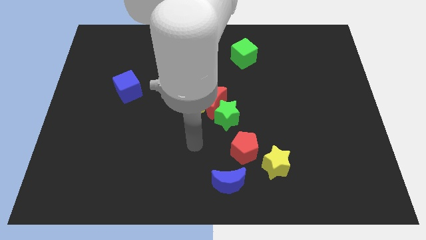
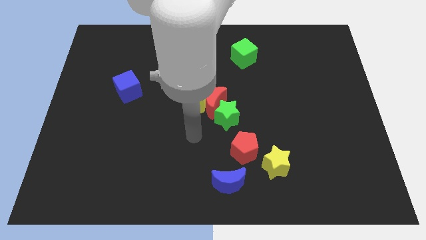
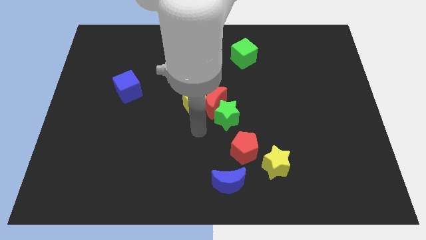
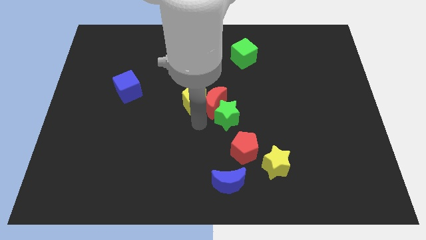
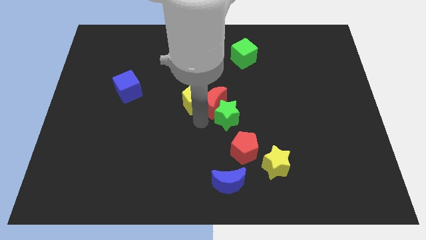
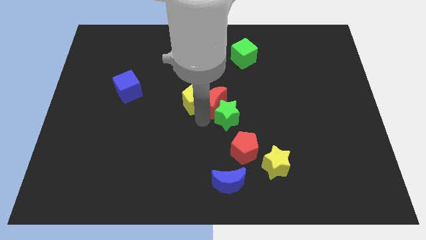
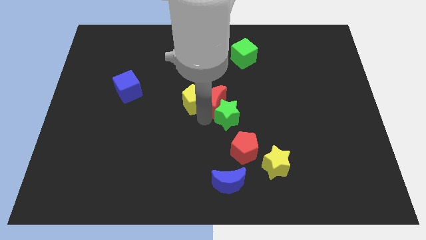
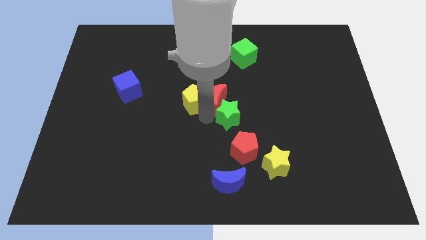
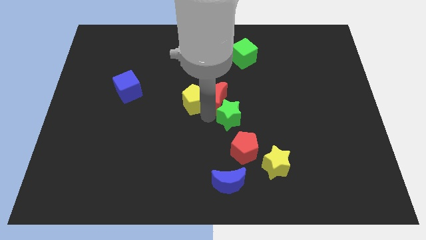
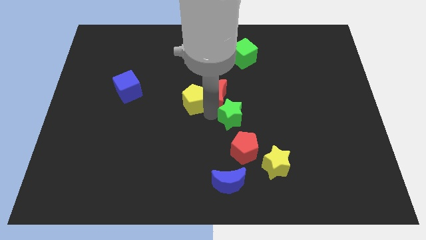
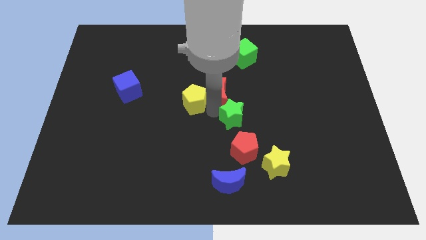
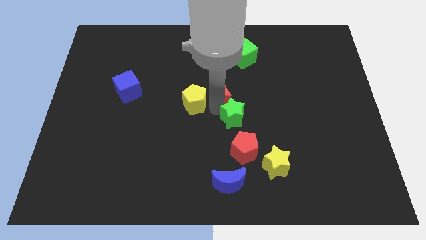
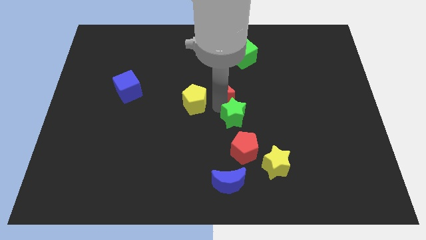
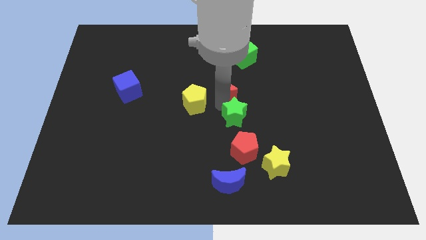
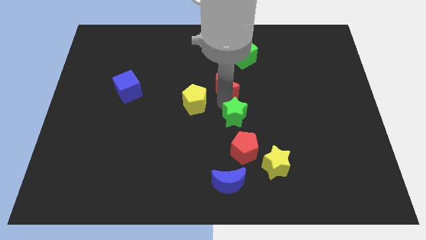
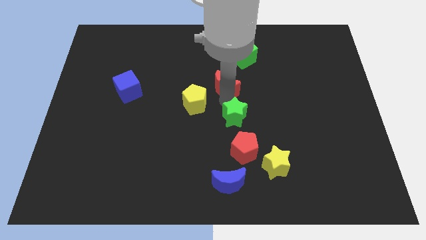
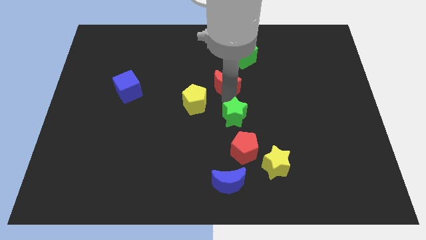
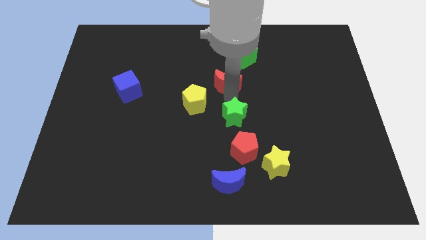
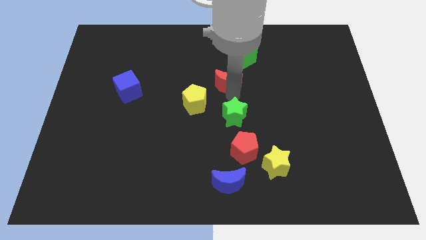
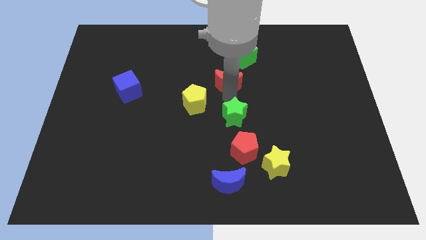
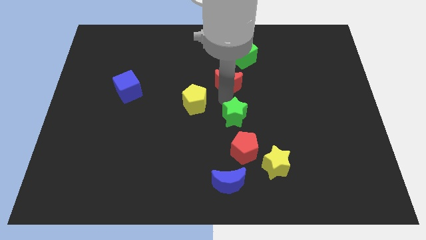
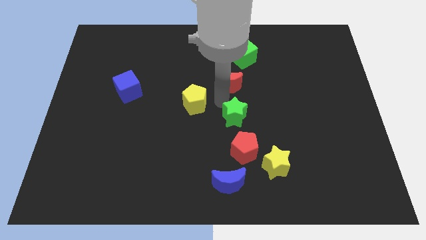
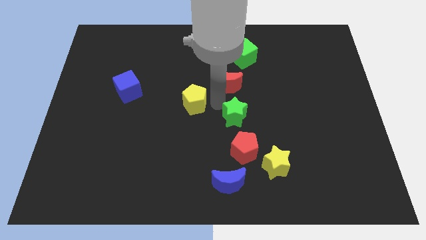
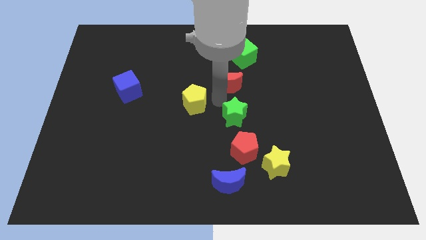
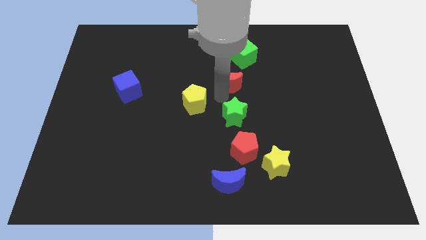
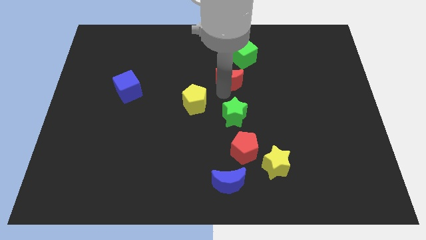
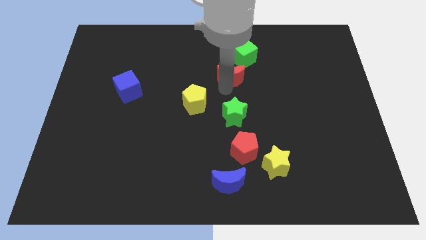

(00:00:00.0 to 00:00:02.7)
move the red moon away from the yellow pentagon and green star

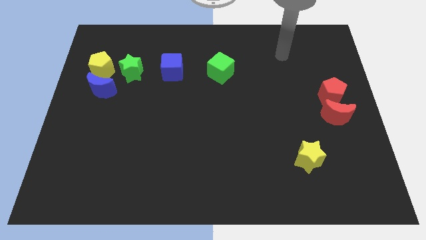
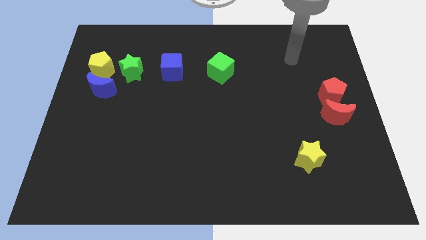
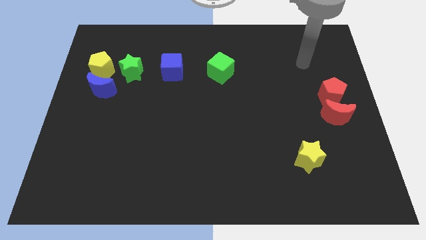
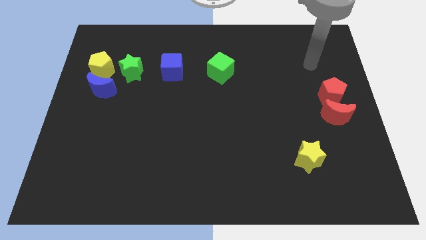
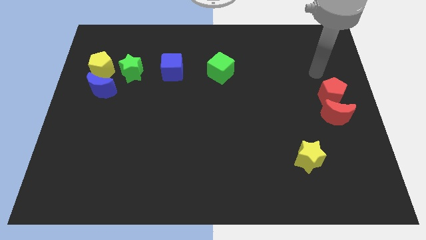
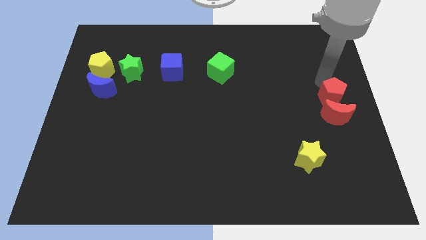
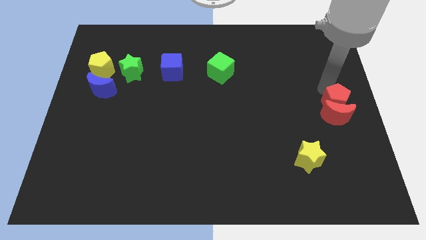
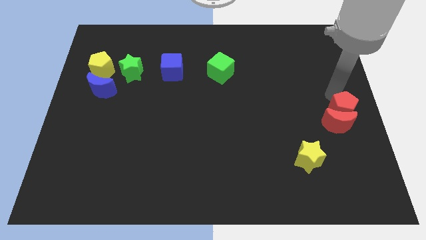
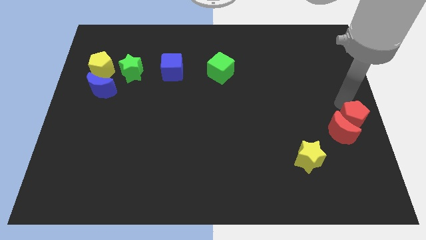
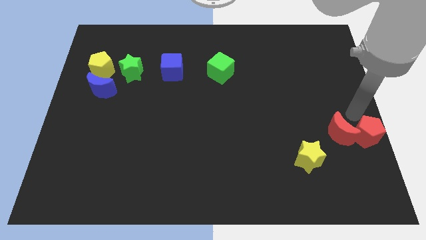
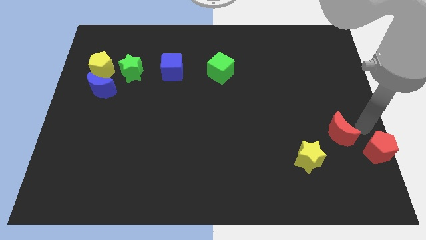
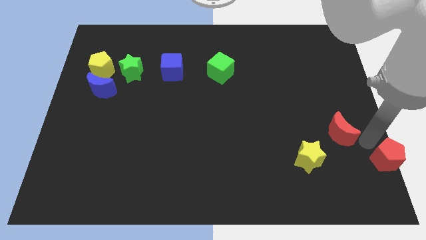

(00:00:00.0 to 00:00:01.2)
separate the red moon from the red pentagon

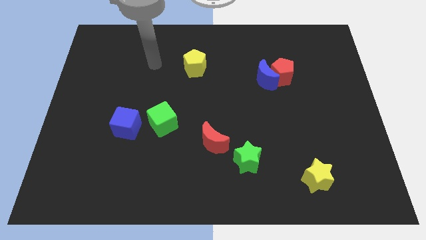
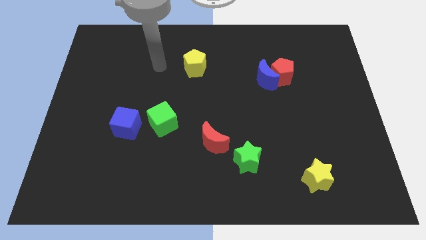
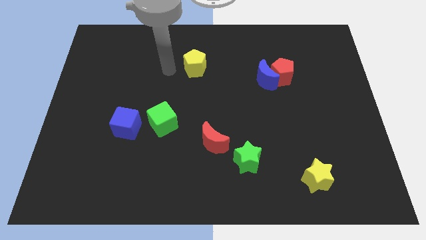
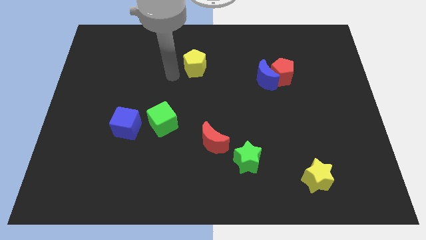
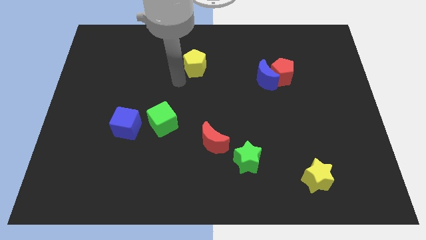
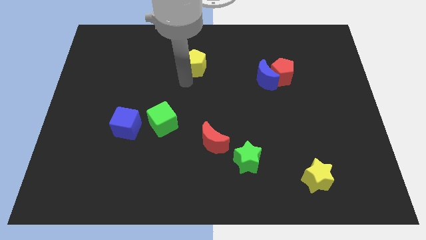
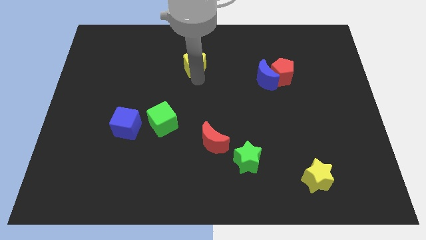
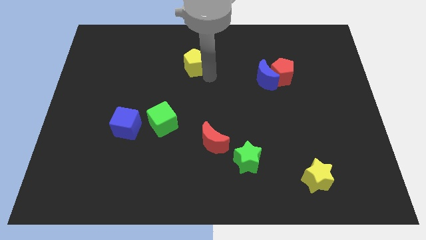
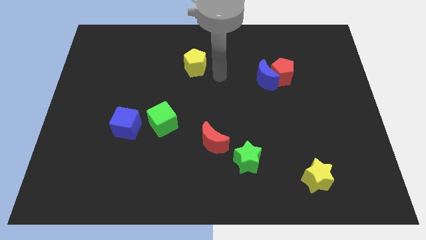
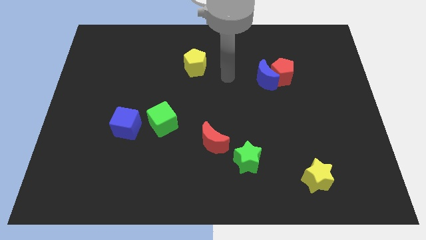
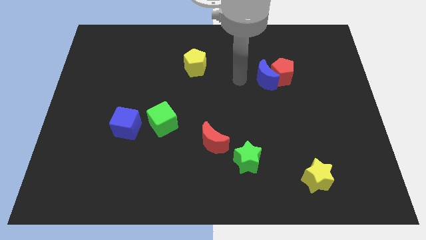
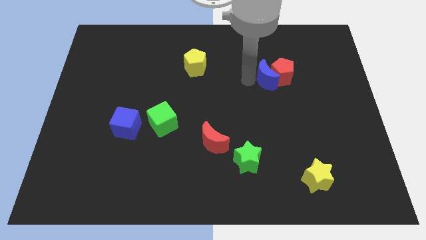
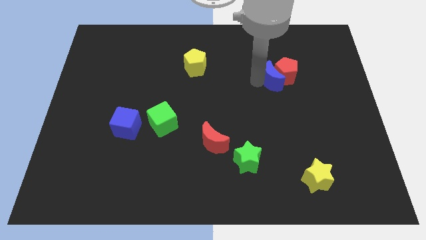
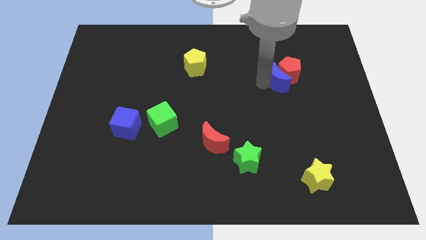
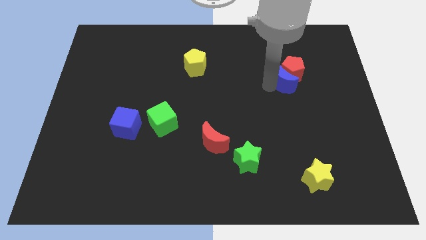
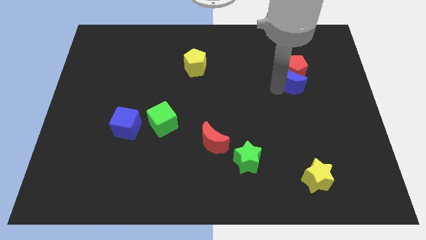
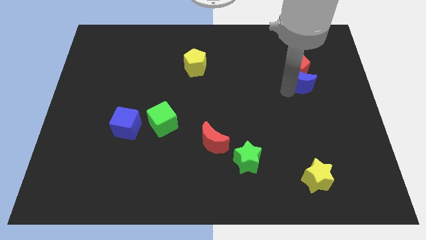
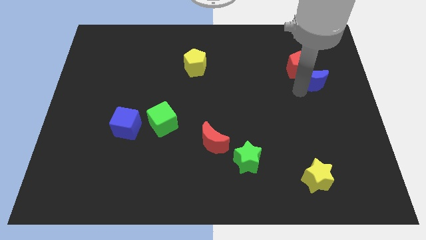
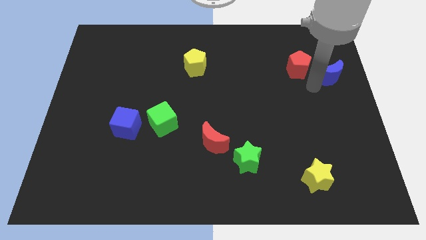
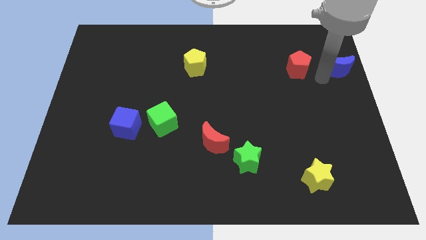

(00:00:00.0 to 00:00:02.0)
pull the red pentagon apart from the blue moon

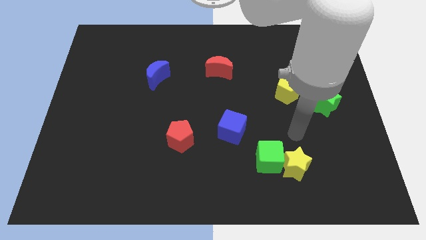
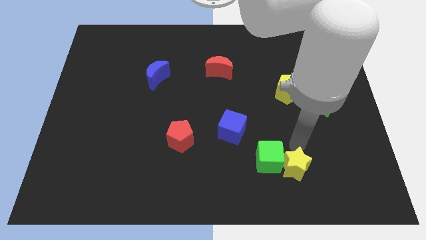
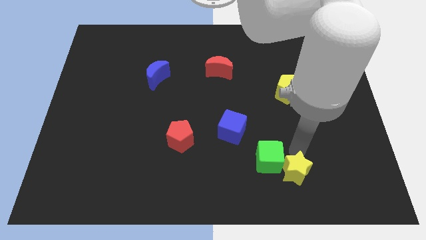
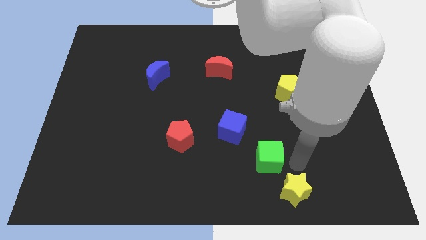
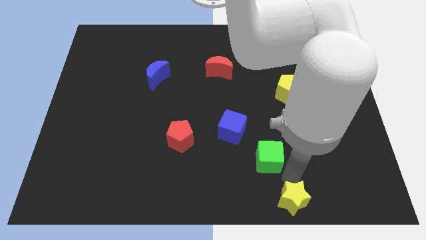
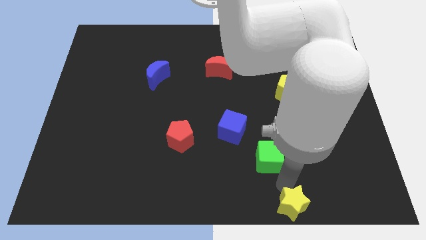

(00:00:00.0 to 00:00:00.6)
move the green cube away from the yellow star

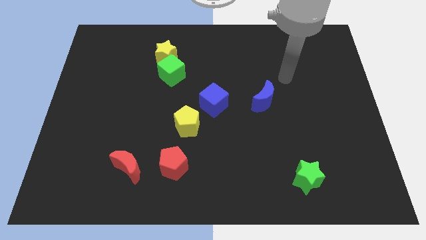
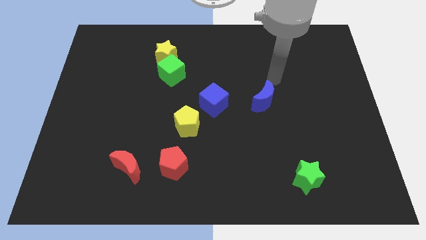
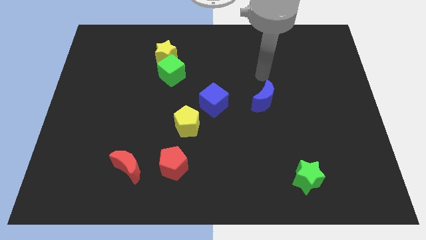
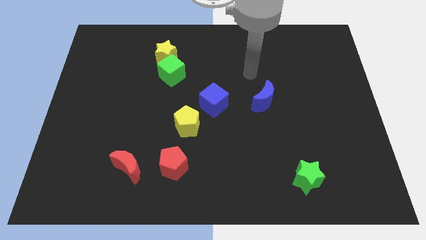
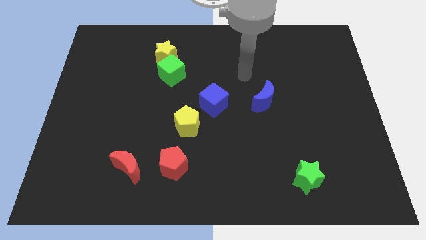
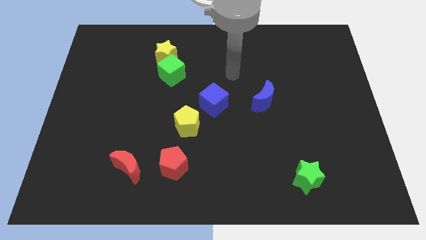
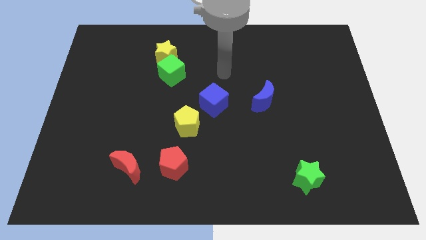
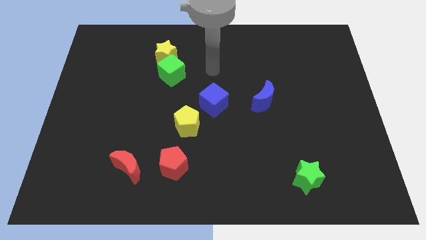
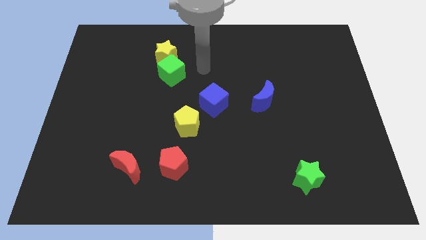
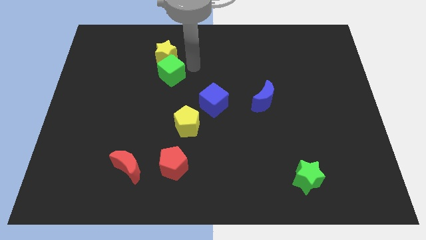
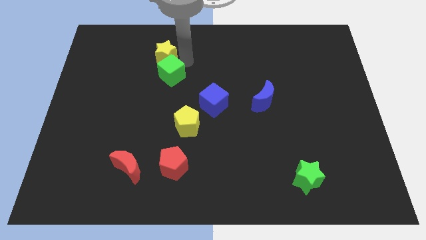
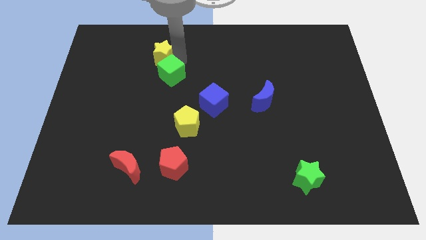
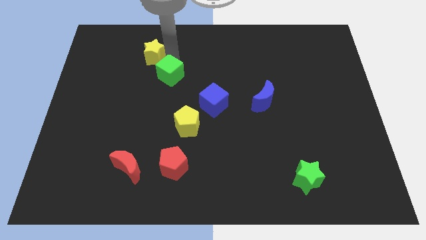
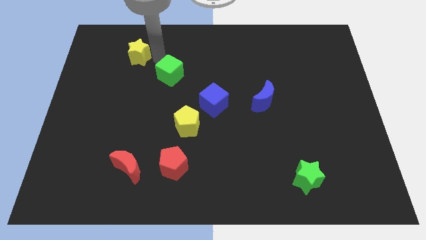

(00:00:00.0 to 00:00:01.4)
separate the green cube from the yellow star

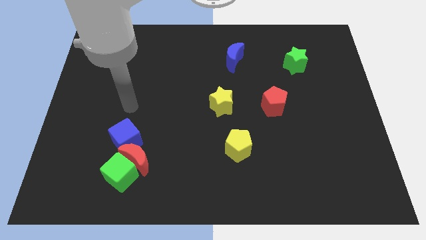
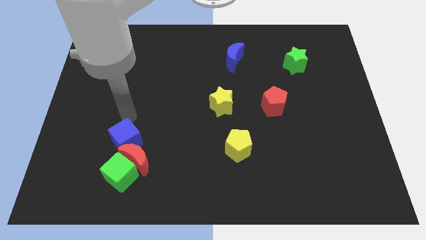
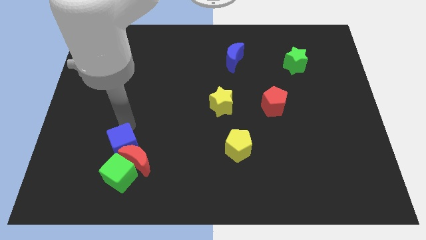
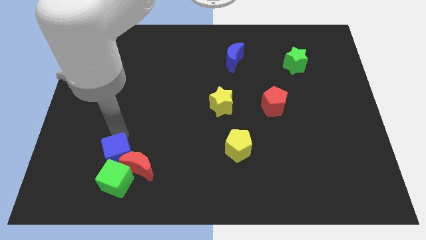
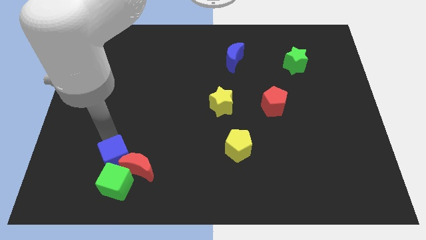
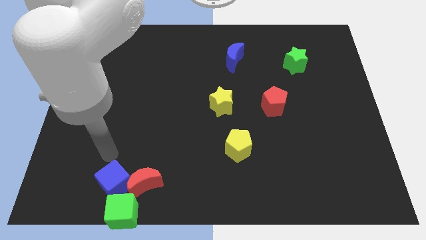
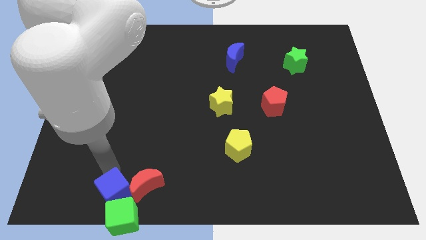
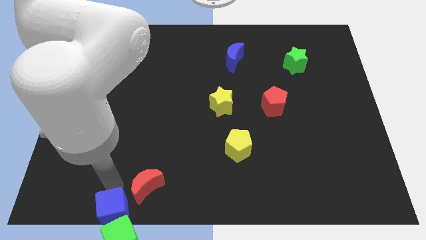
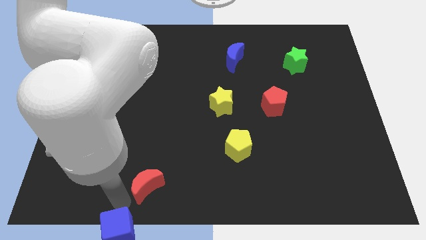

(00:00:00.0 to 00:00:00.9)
pull the red moon apart from the green cube and blue cube

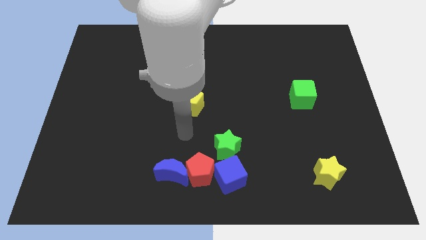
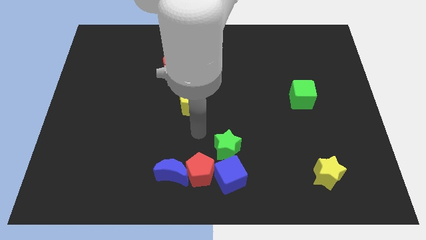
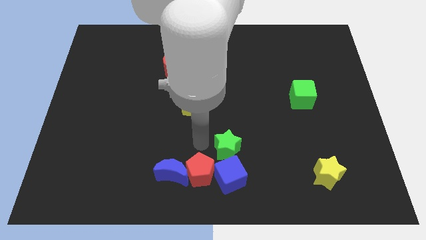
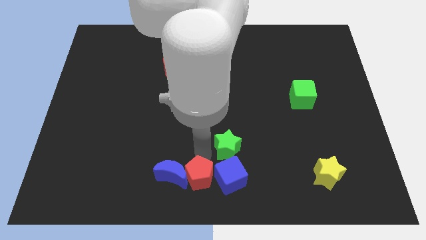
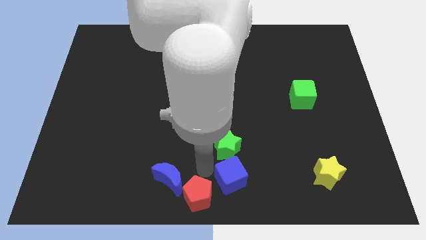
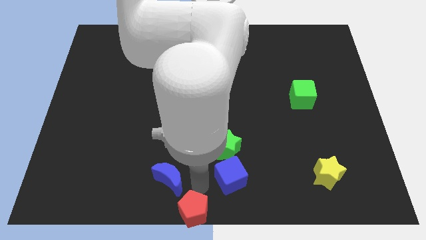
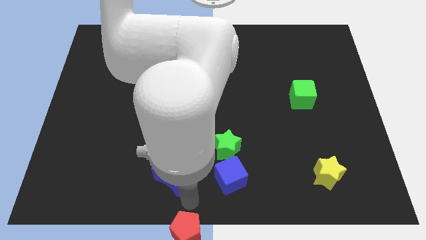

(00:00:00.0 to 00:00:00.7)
move the blue moon away from the red pentagon
